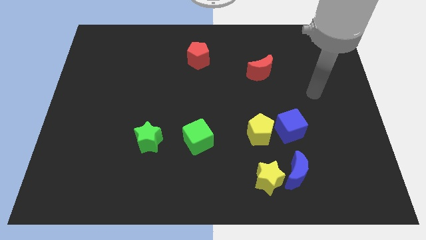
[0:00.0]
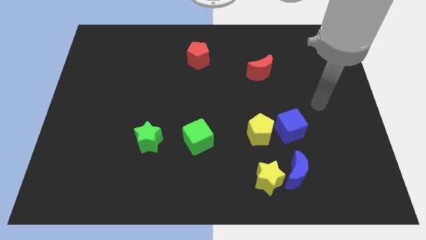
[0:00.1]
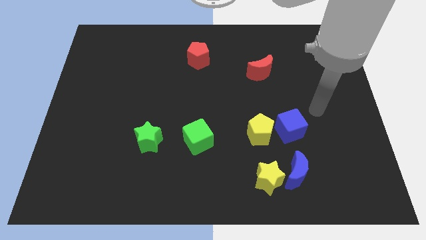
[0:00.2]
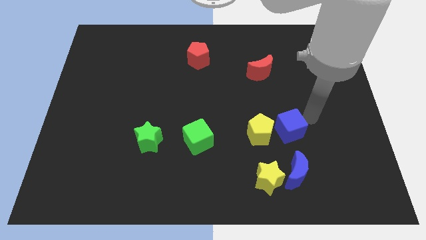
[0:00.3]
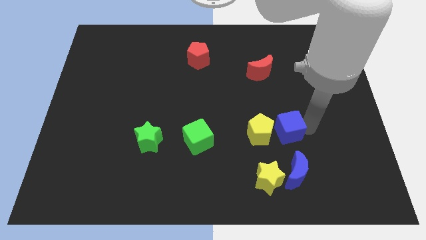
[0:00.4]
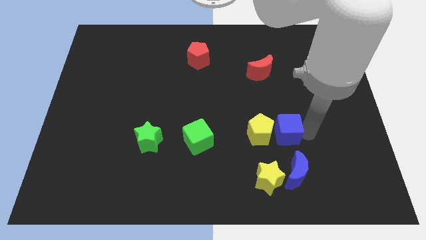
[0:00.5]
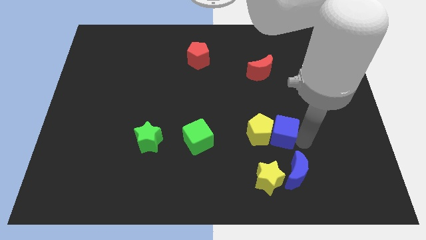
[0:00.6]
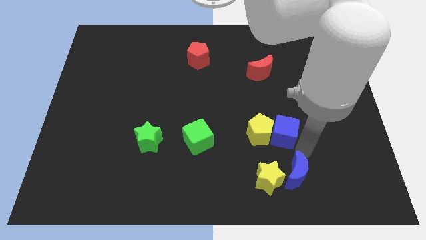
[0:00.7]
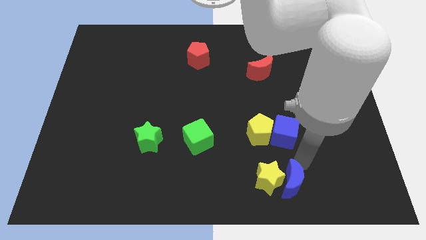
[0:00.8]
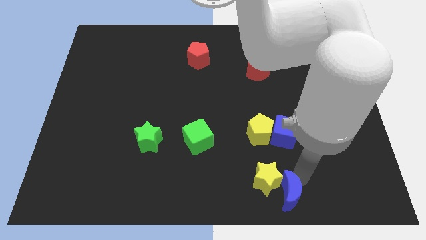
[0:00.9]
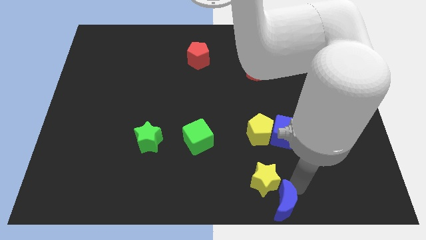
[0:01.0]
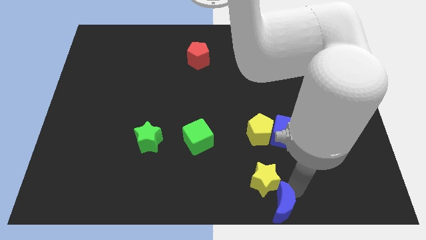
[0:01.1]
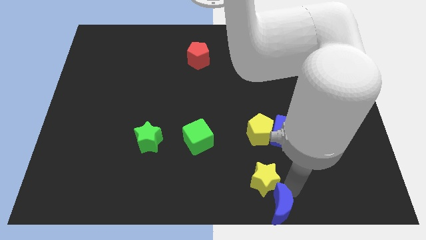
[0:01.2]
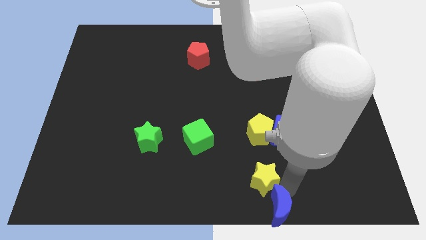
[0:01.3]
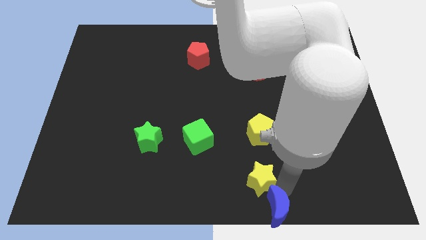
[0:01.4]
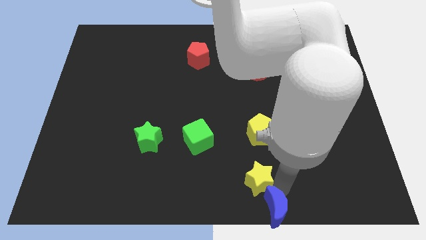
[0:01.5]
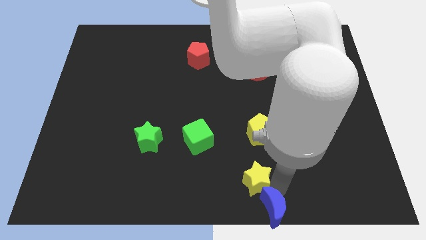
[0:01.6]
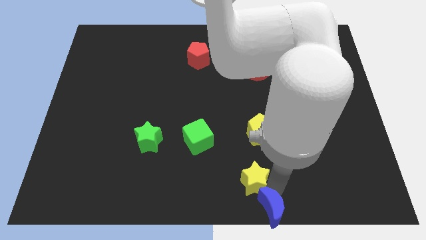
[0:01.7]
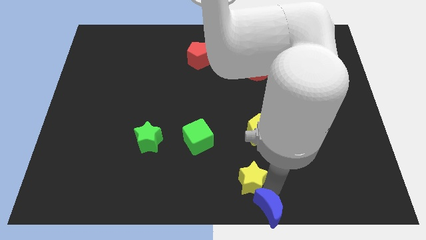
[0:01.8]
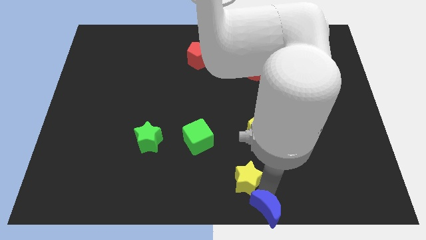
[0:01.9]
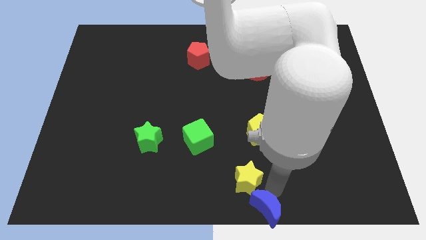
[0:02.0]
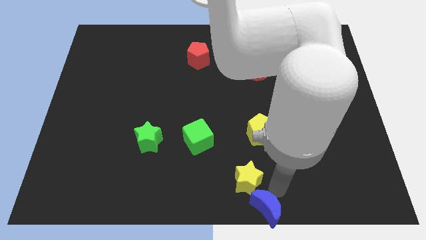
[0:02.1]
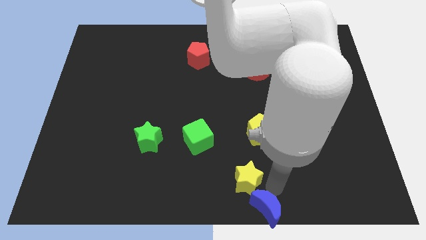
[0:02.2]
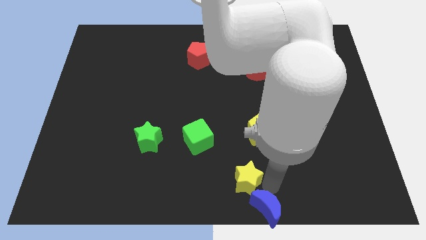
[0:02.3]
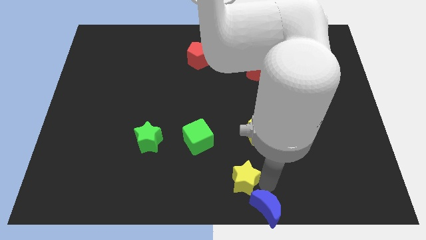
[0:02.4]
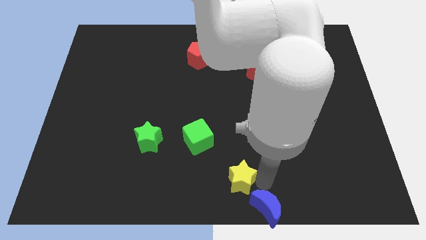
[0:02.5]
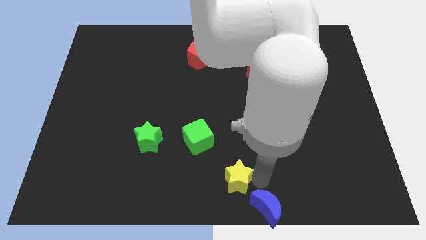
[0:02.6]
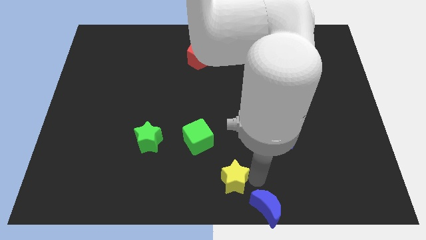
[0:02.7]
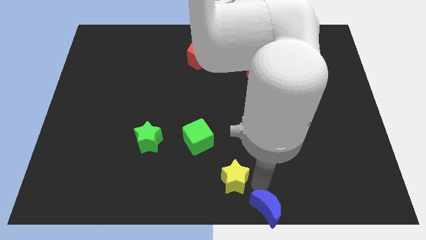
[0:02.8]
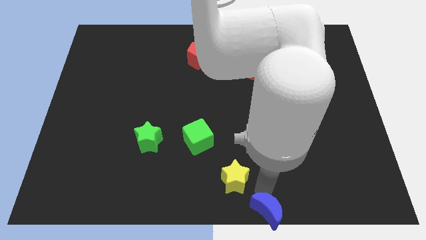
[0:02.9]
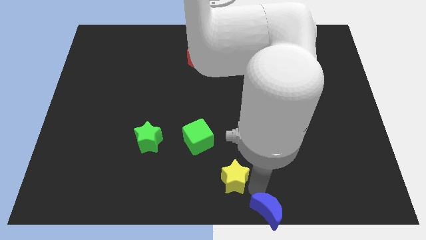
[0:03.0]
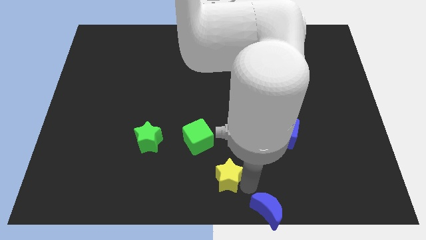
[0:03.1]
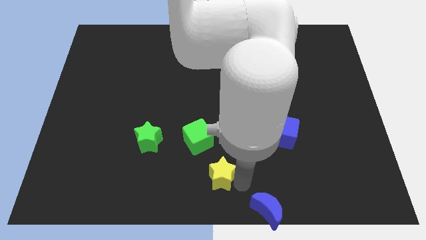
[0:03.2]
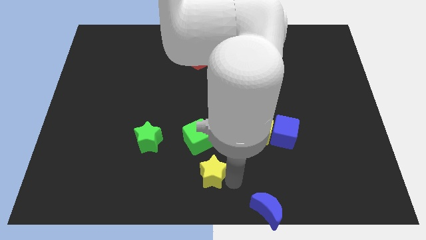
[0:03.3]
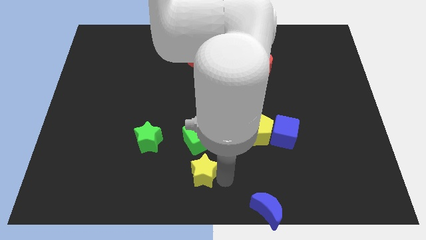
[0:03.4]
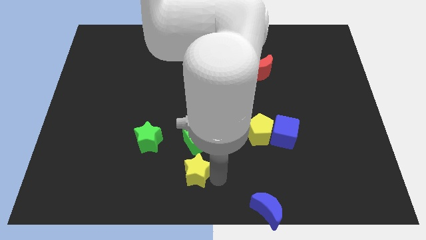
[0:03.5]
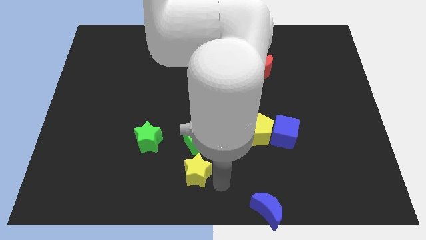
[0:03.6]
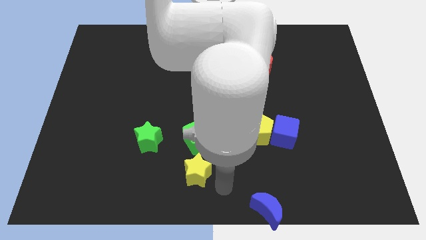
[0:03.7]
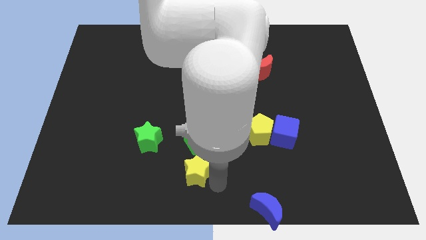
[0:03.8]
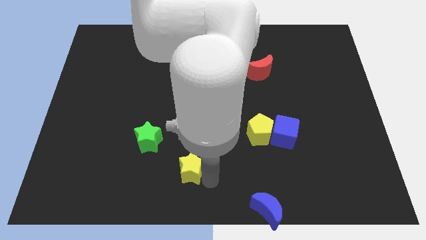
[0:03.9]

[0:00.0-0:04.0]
put the yellow star to the bottom left of the green cube

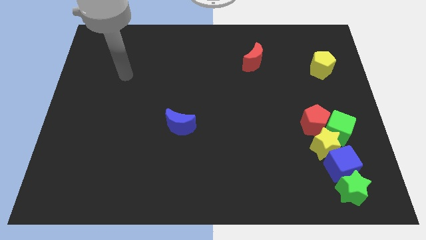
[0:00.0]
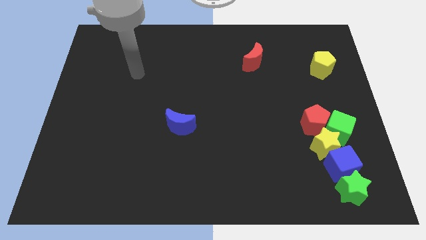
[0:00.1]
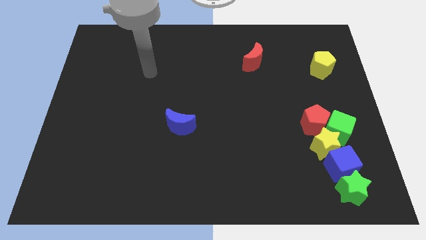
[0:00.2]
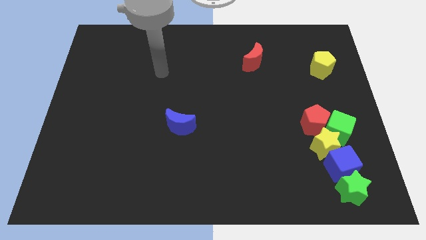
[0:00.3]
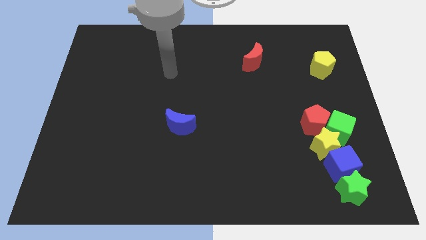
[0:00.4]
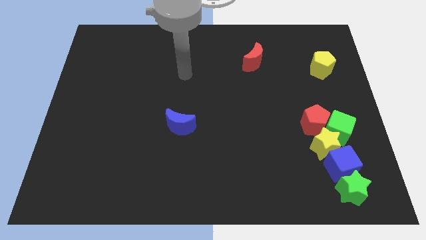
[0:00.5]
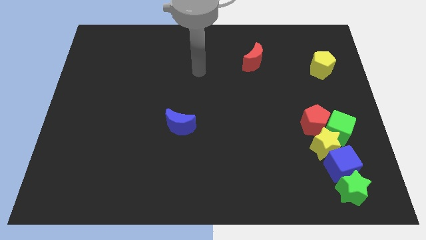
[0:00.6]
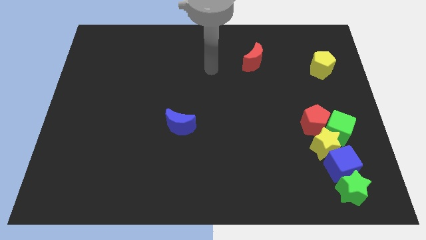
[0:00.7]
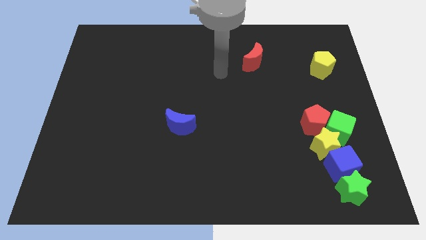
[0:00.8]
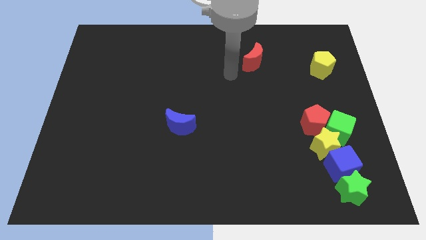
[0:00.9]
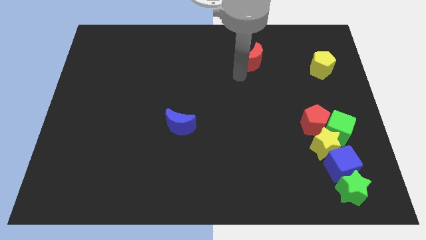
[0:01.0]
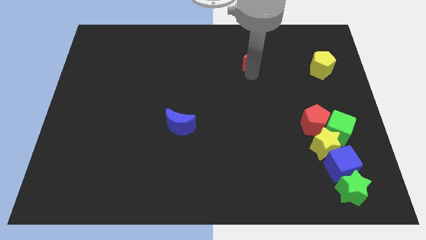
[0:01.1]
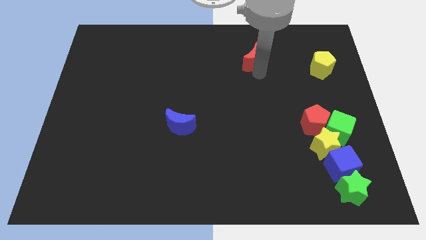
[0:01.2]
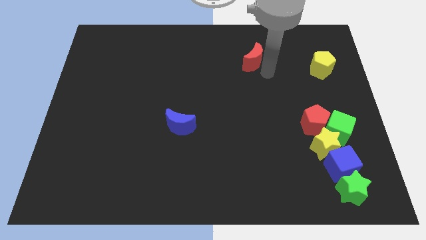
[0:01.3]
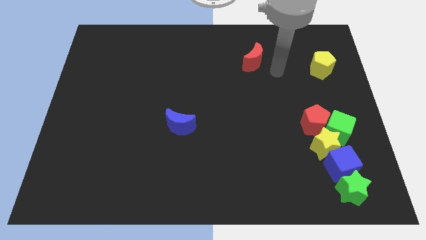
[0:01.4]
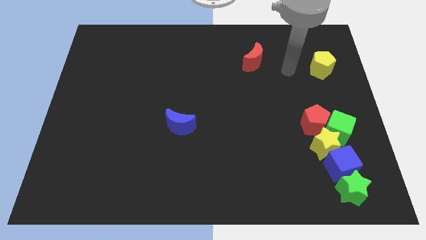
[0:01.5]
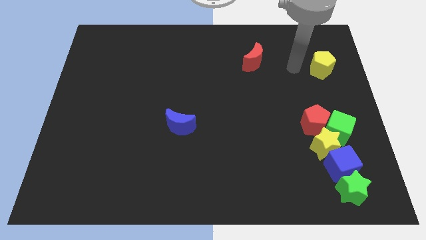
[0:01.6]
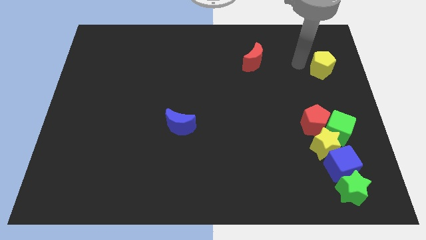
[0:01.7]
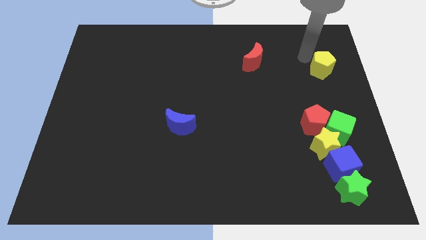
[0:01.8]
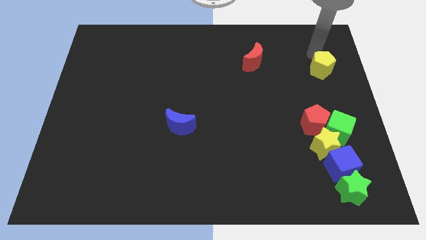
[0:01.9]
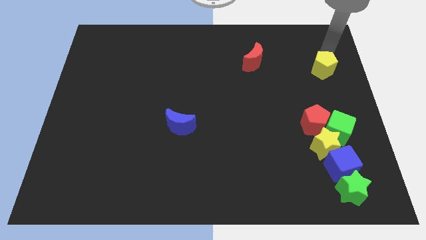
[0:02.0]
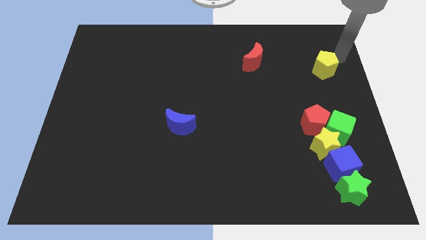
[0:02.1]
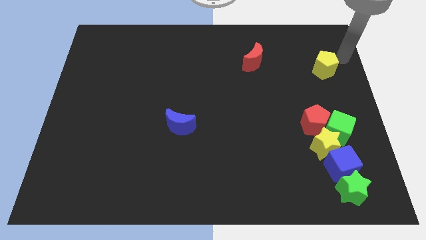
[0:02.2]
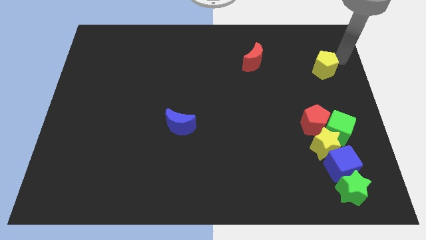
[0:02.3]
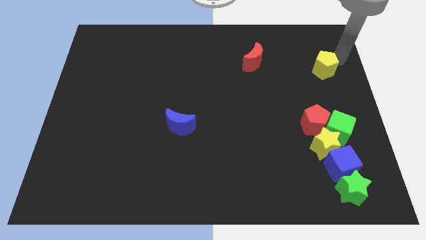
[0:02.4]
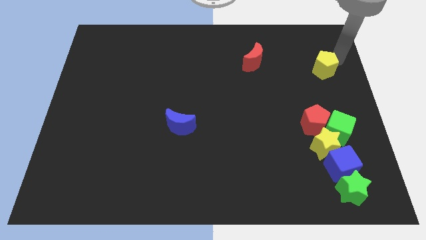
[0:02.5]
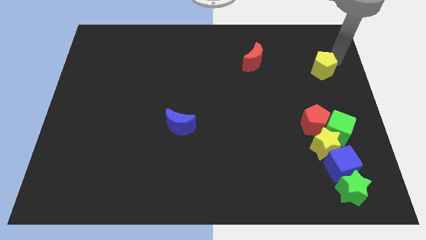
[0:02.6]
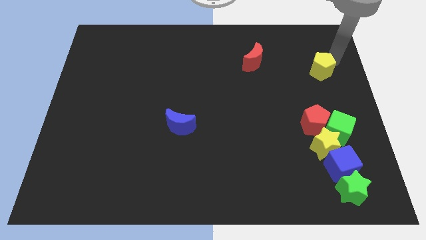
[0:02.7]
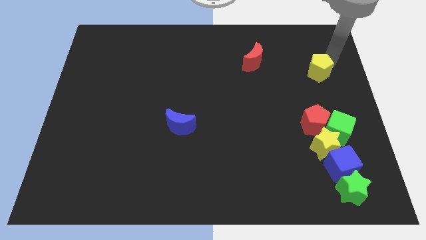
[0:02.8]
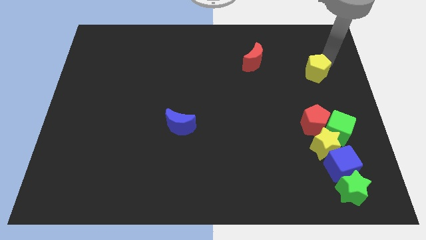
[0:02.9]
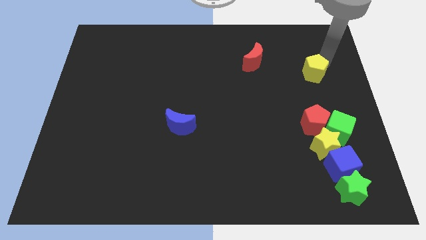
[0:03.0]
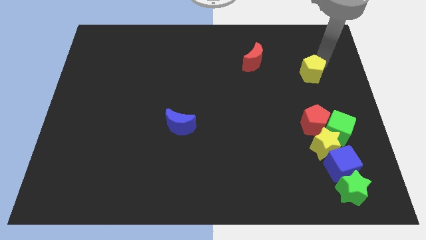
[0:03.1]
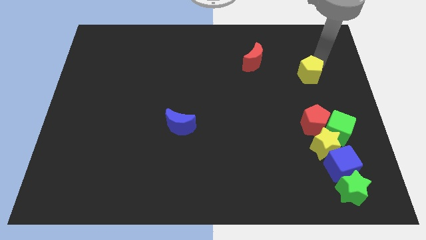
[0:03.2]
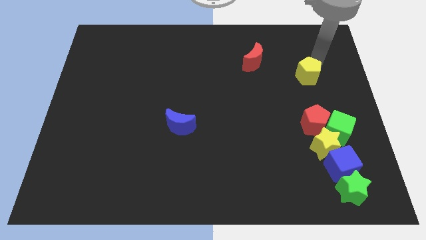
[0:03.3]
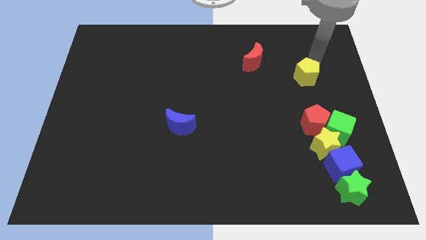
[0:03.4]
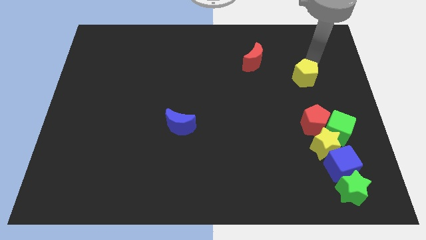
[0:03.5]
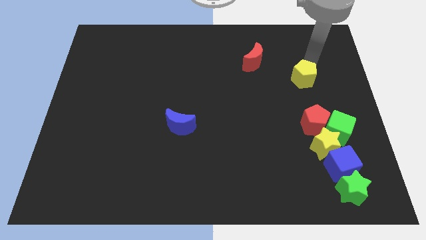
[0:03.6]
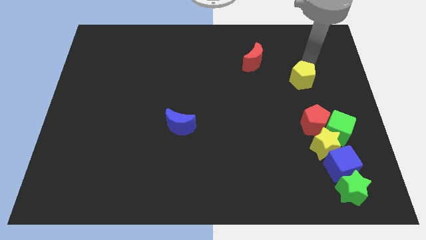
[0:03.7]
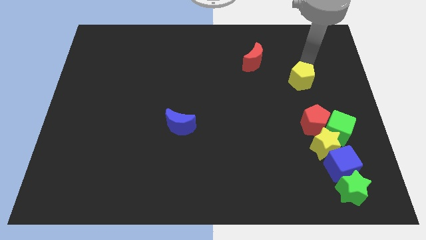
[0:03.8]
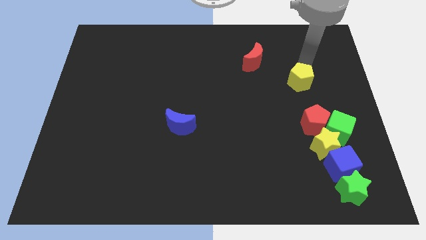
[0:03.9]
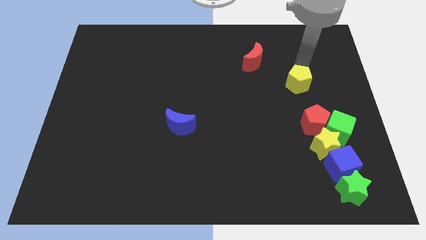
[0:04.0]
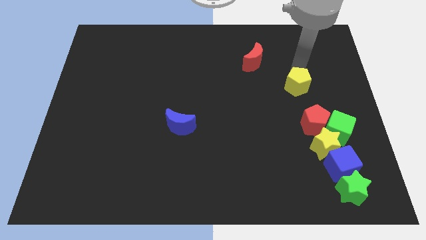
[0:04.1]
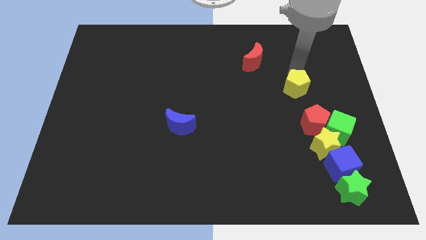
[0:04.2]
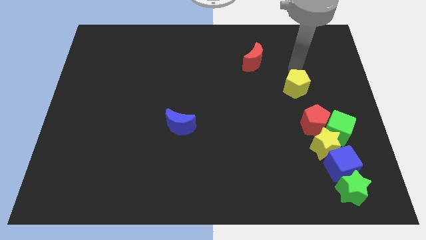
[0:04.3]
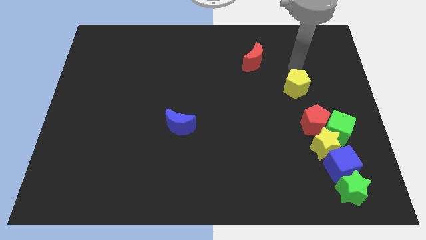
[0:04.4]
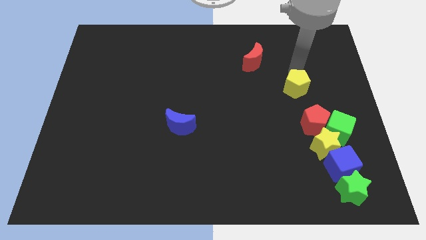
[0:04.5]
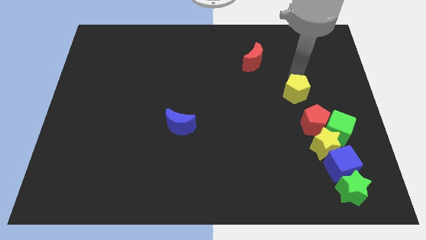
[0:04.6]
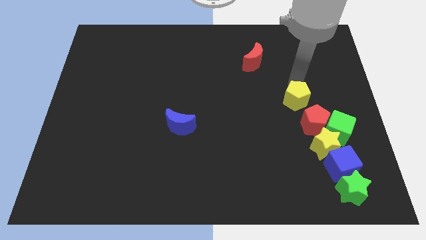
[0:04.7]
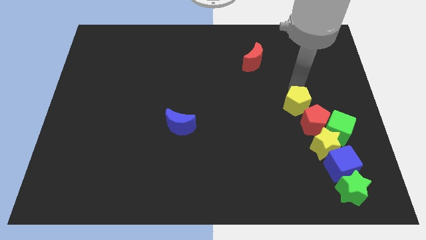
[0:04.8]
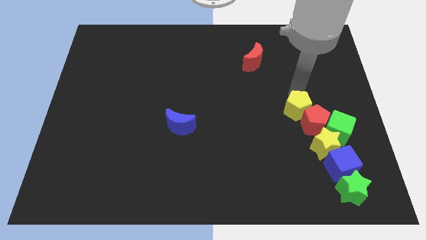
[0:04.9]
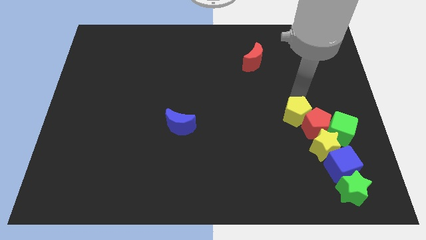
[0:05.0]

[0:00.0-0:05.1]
push the yellow pentagon to the left of the green cube
